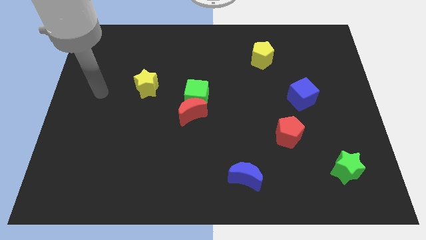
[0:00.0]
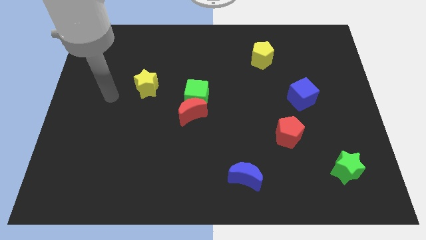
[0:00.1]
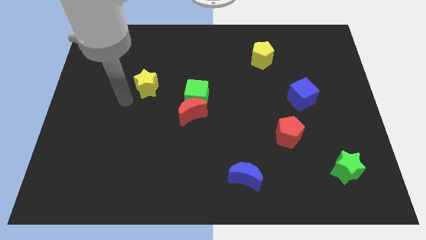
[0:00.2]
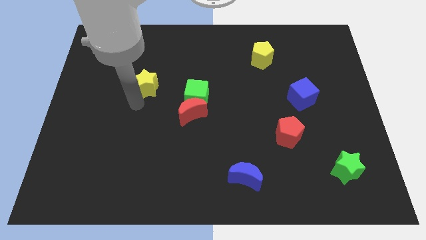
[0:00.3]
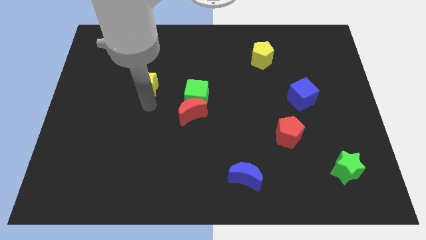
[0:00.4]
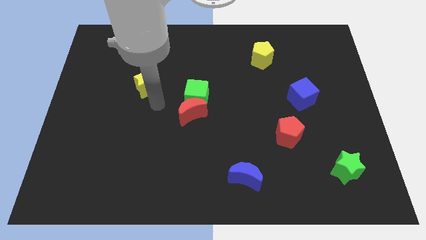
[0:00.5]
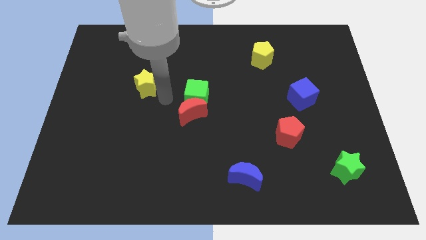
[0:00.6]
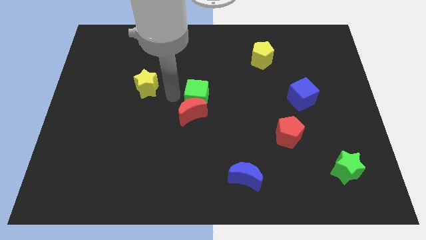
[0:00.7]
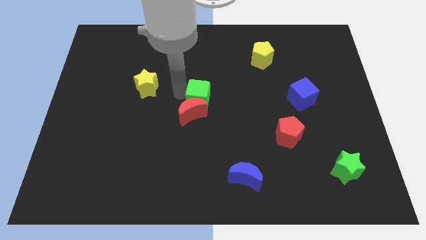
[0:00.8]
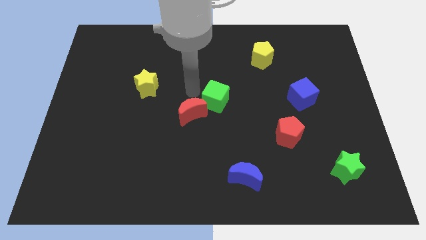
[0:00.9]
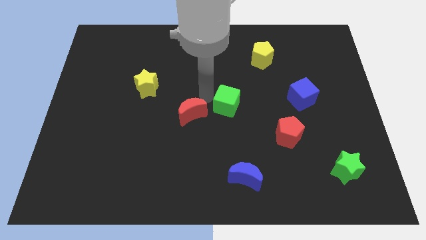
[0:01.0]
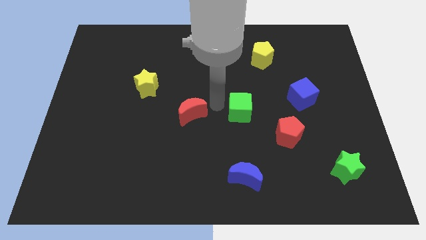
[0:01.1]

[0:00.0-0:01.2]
separate the red moon from the green cube

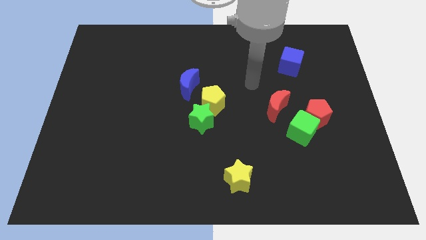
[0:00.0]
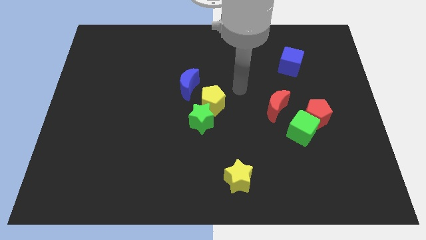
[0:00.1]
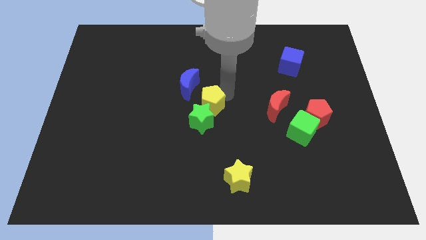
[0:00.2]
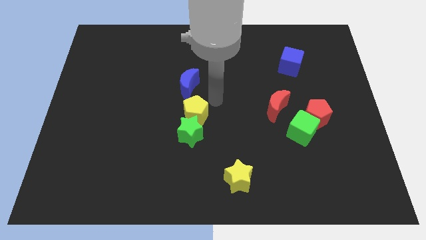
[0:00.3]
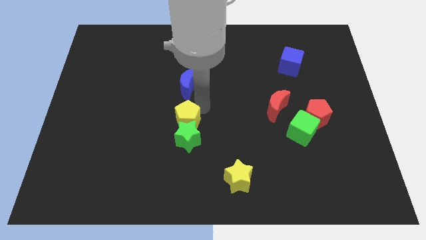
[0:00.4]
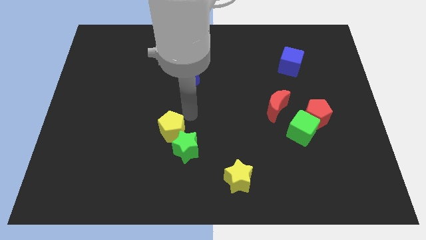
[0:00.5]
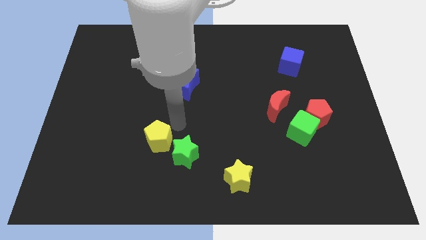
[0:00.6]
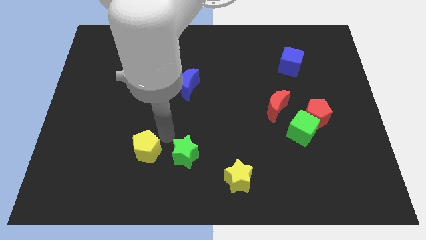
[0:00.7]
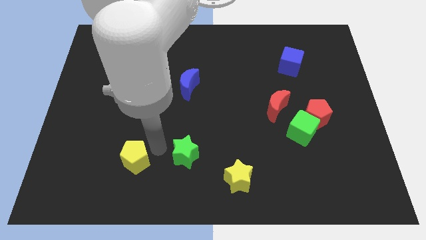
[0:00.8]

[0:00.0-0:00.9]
move the green star away from the yellow pentagon

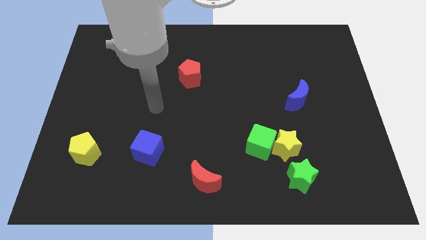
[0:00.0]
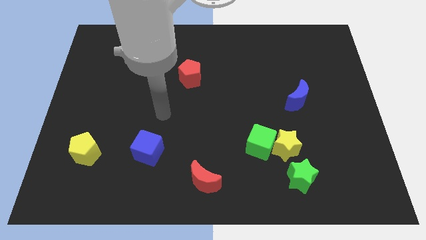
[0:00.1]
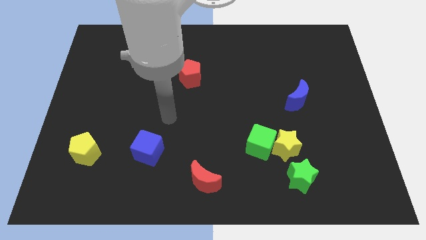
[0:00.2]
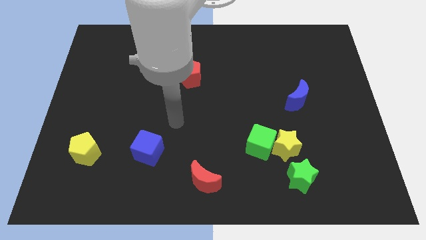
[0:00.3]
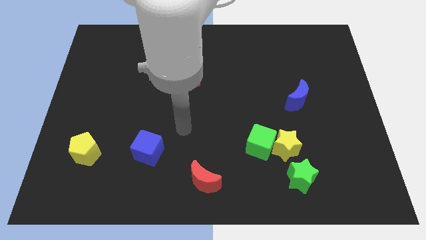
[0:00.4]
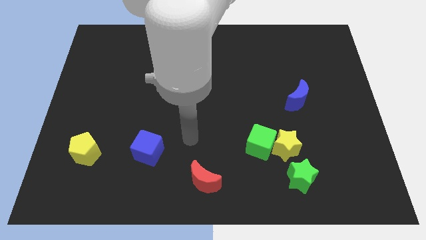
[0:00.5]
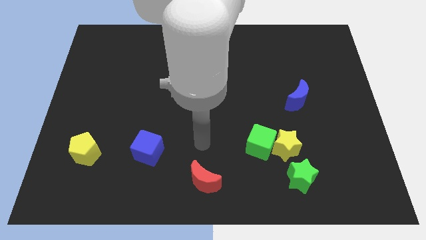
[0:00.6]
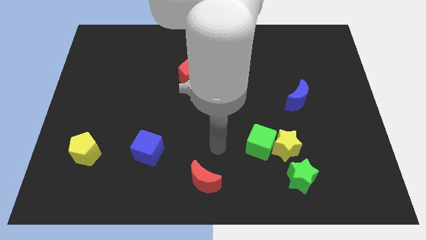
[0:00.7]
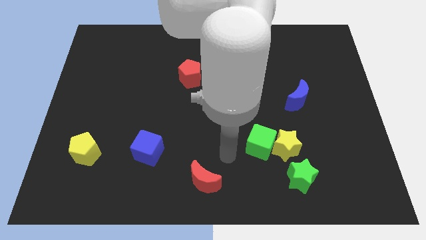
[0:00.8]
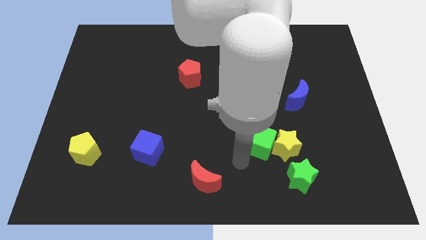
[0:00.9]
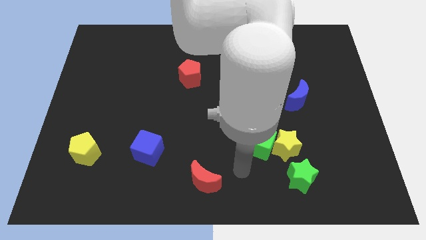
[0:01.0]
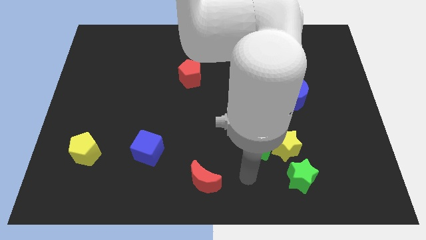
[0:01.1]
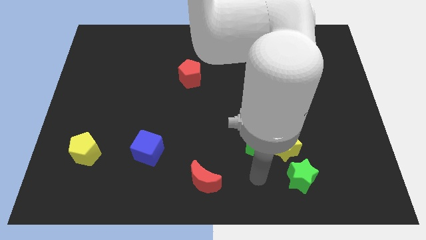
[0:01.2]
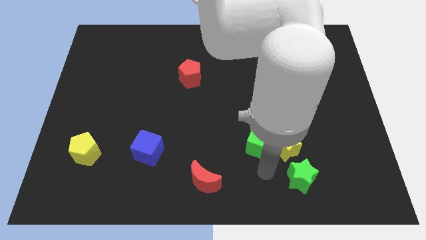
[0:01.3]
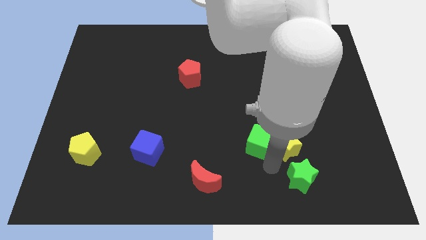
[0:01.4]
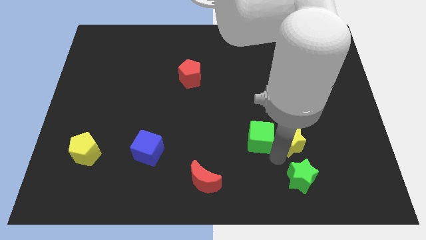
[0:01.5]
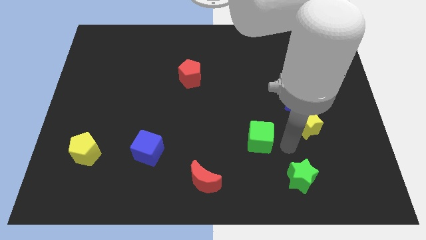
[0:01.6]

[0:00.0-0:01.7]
separate the green cube from the yellow star

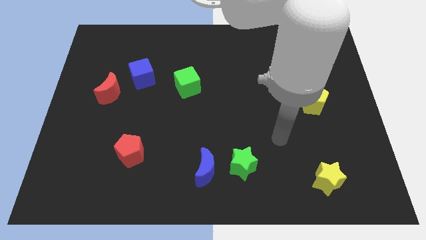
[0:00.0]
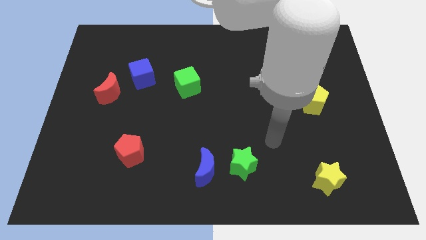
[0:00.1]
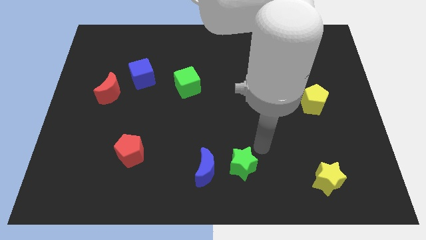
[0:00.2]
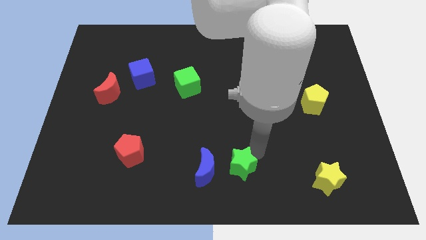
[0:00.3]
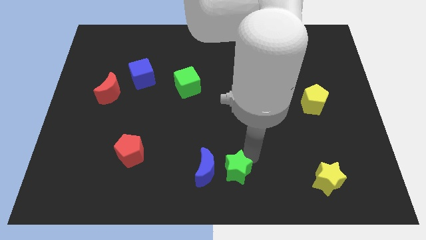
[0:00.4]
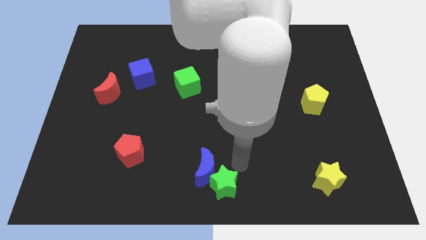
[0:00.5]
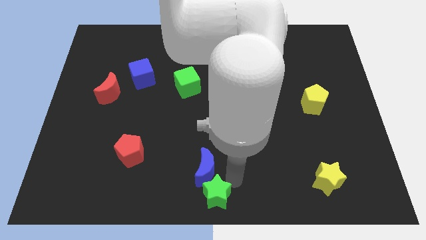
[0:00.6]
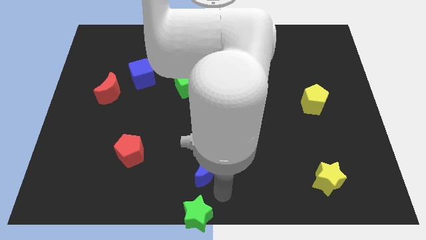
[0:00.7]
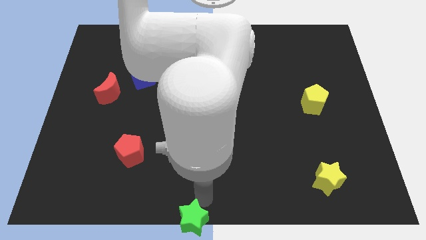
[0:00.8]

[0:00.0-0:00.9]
pull the blue moon apart from the green star

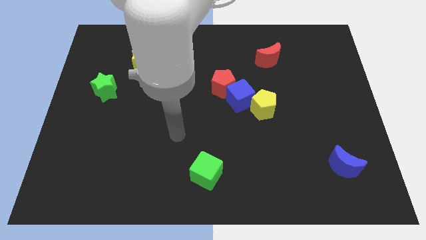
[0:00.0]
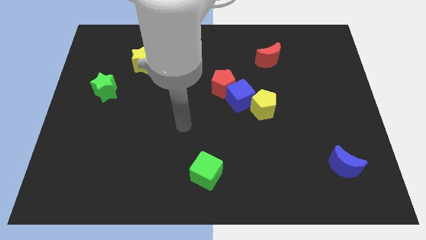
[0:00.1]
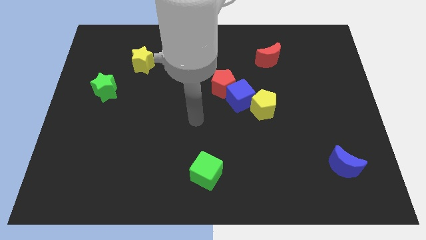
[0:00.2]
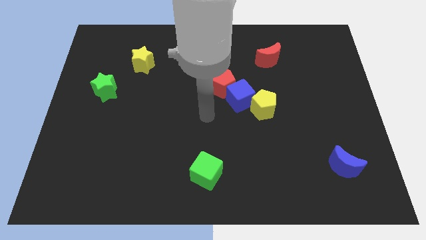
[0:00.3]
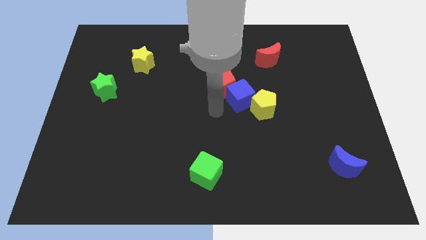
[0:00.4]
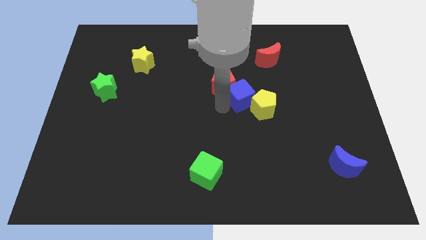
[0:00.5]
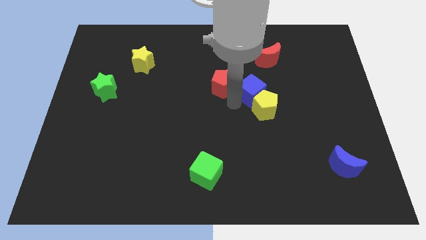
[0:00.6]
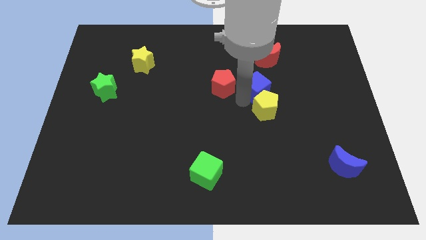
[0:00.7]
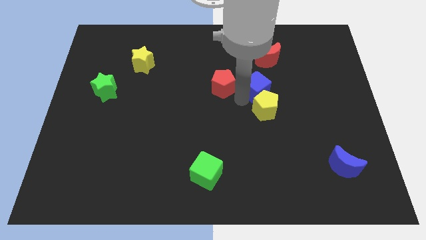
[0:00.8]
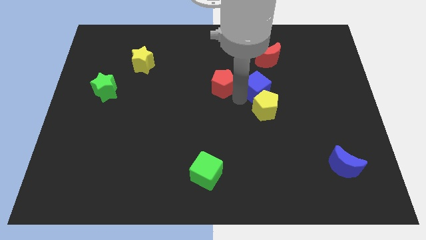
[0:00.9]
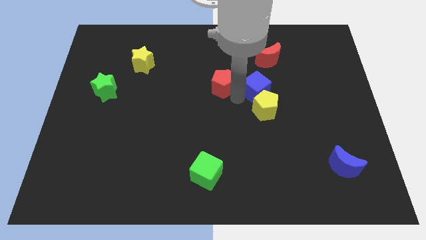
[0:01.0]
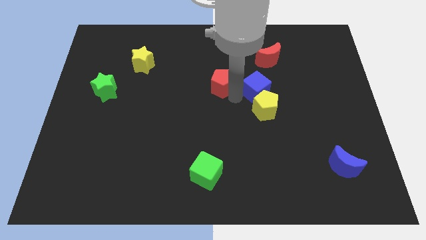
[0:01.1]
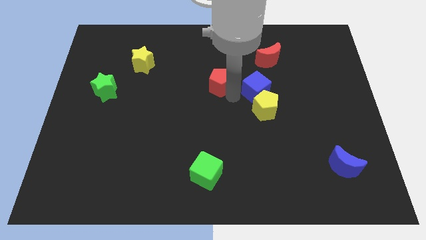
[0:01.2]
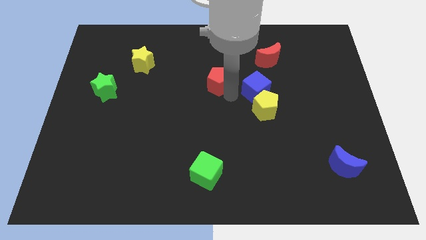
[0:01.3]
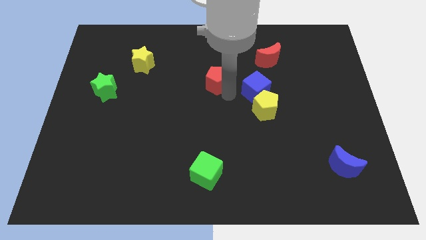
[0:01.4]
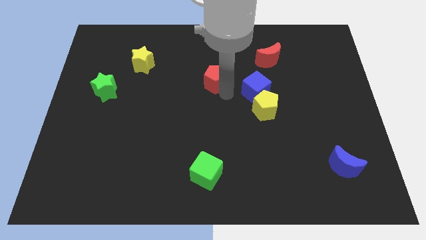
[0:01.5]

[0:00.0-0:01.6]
move the red pentagon away from the blue cube

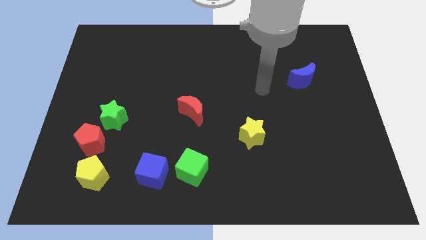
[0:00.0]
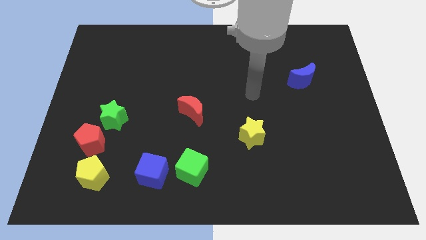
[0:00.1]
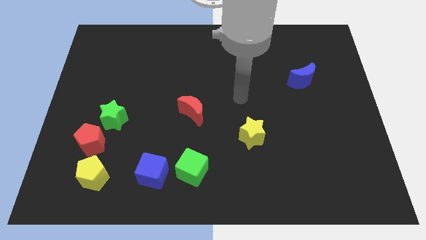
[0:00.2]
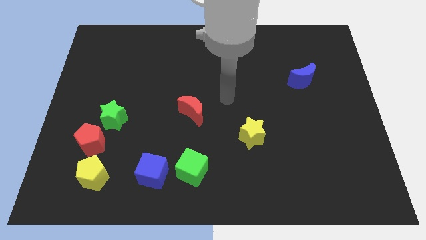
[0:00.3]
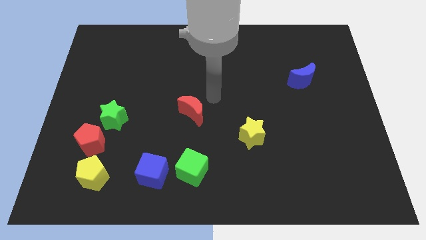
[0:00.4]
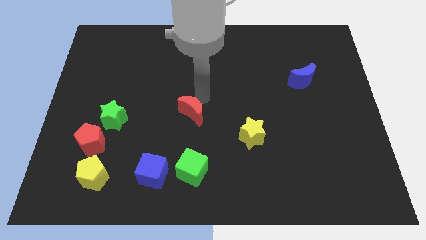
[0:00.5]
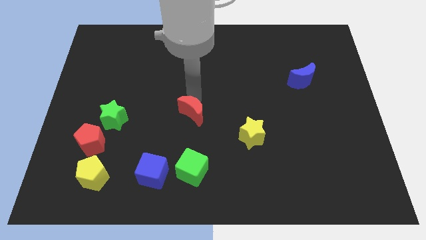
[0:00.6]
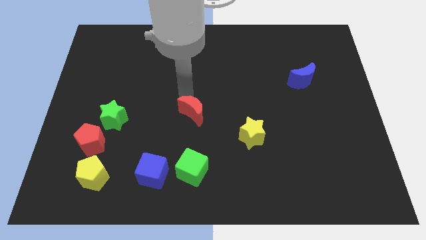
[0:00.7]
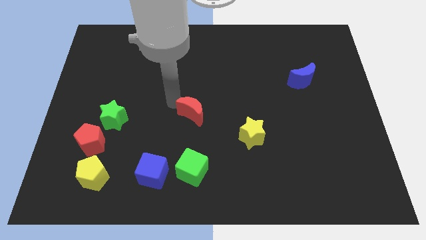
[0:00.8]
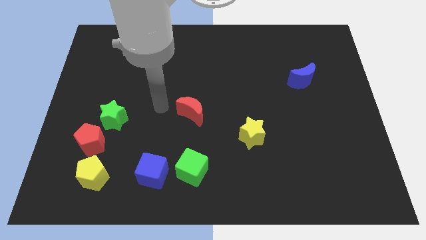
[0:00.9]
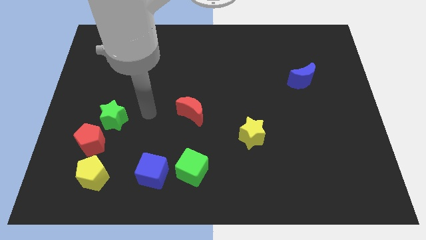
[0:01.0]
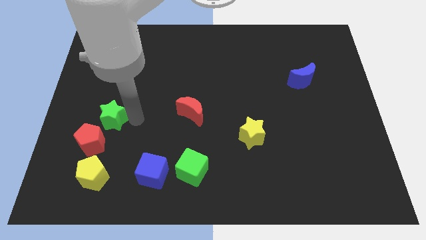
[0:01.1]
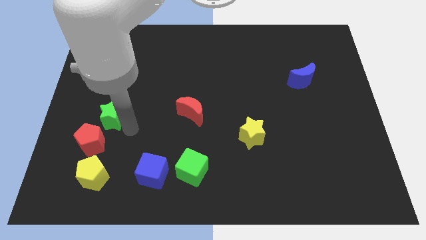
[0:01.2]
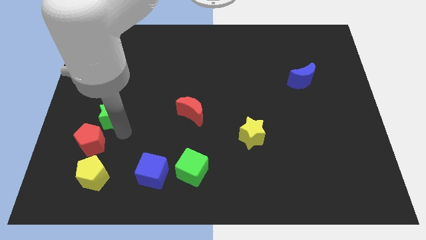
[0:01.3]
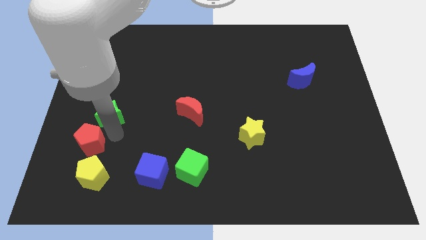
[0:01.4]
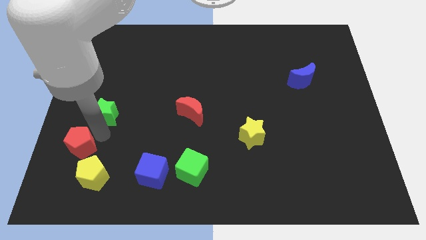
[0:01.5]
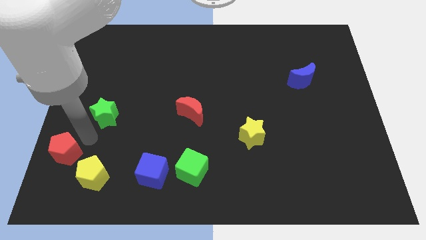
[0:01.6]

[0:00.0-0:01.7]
move the green star away from the red pentagon

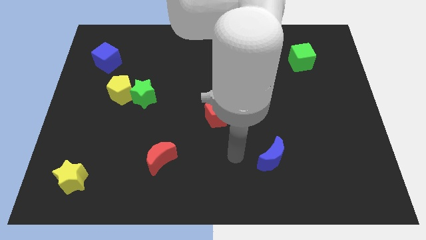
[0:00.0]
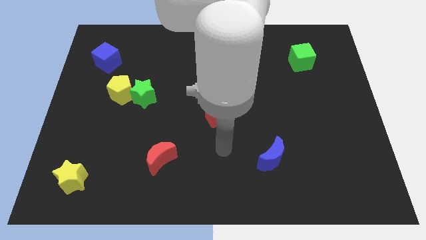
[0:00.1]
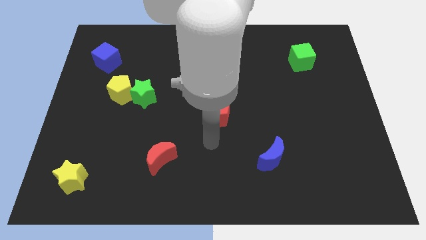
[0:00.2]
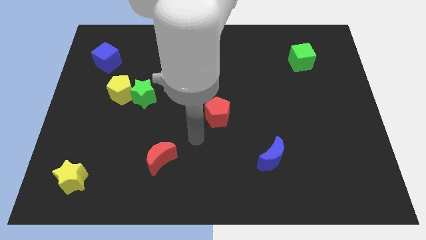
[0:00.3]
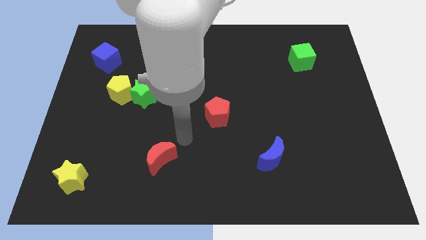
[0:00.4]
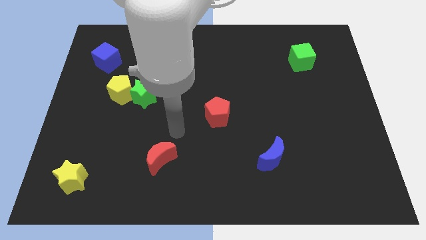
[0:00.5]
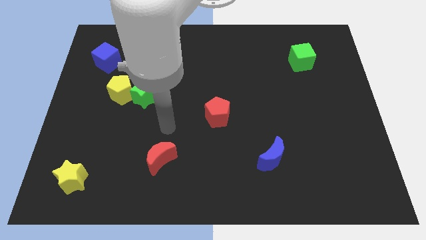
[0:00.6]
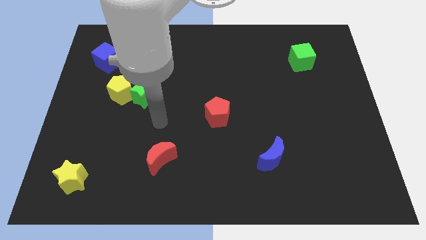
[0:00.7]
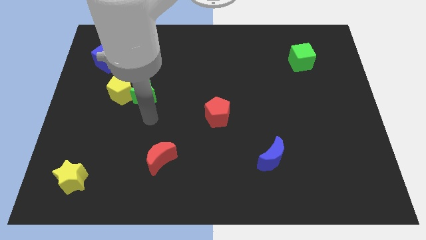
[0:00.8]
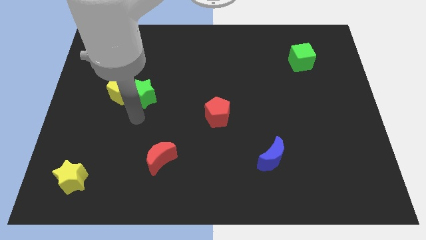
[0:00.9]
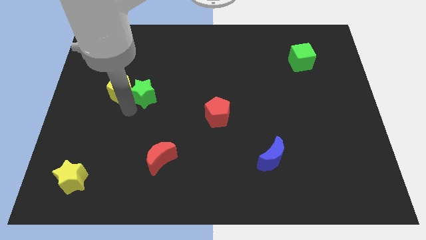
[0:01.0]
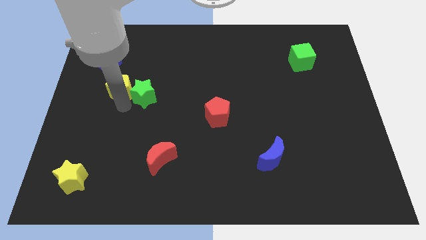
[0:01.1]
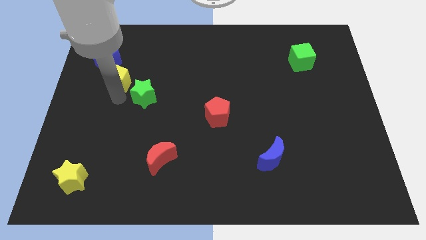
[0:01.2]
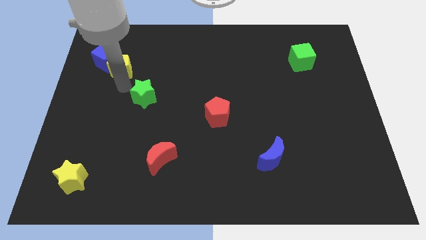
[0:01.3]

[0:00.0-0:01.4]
separate the green star from the yellow pentagon
